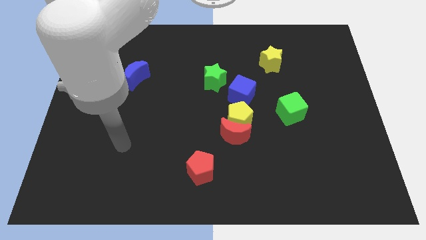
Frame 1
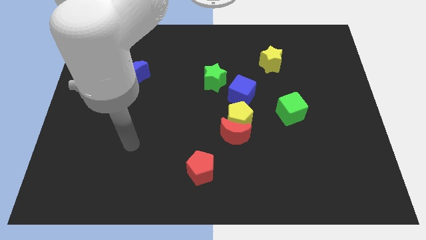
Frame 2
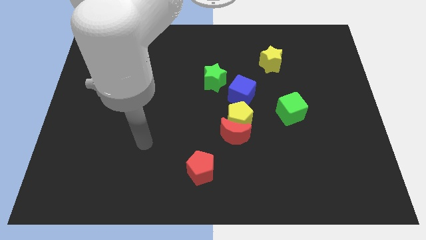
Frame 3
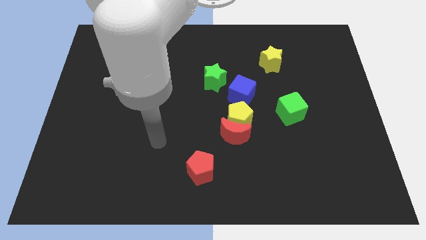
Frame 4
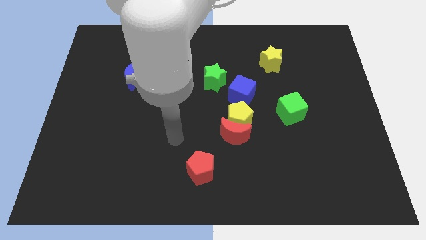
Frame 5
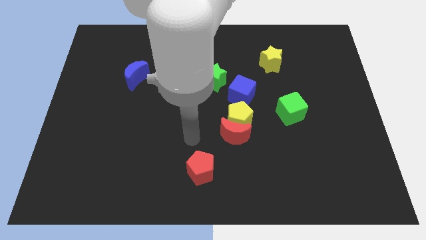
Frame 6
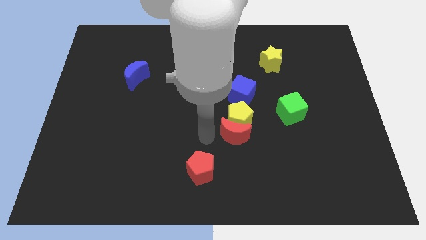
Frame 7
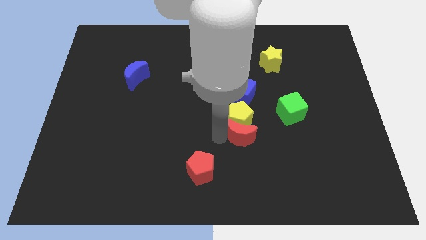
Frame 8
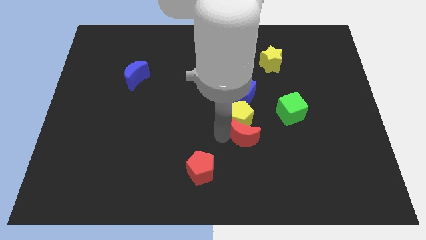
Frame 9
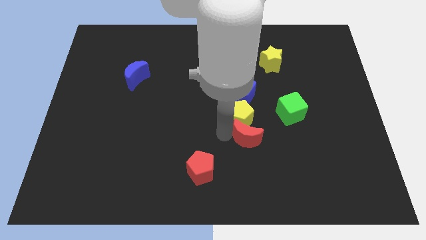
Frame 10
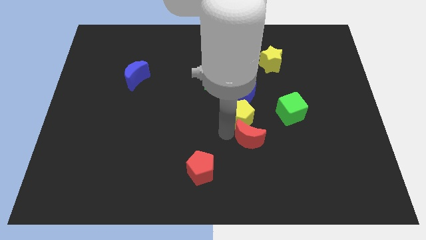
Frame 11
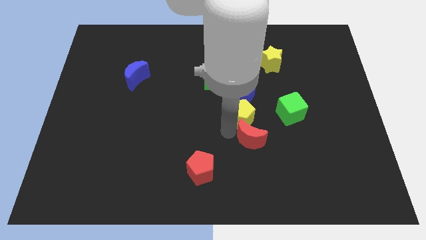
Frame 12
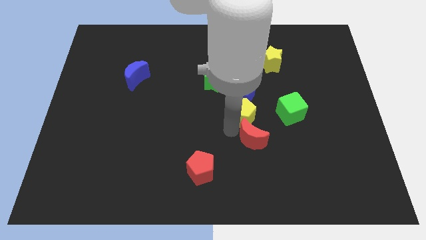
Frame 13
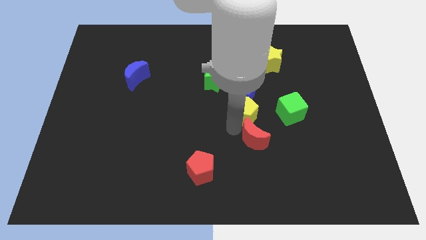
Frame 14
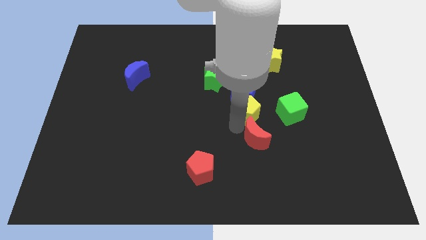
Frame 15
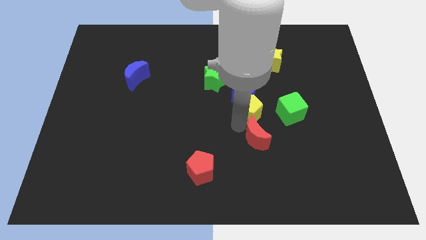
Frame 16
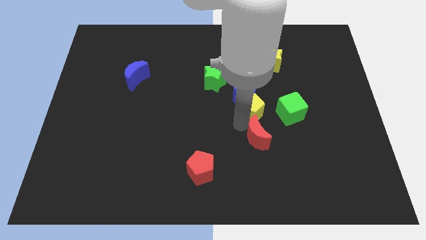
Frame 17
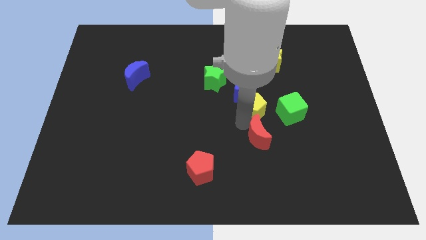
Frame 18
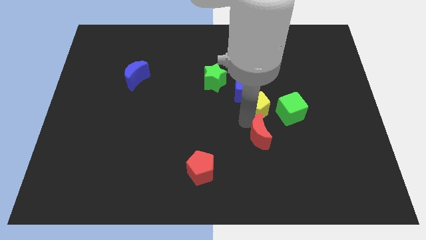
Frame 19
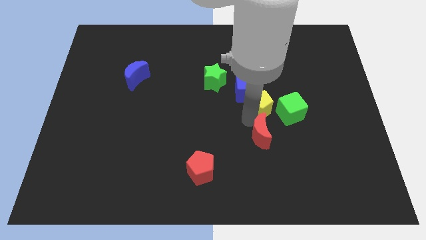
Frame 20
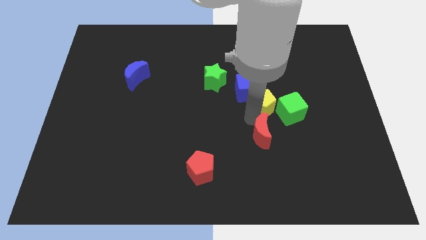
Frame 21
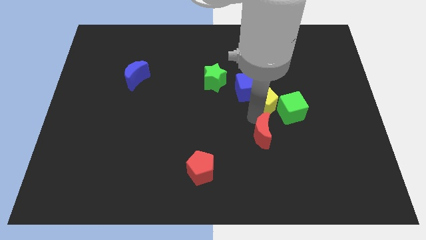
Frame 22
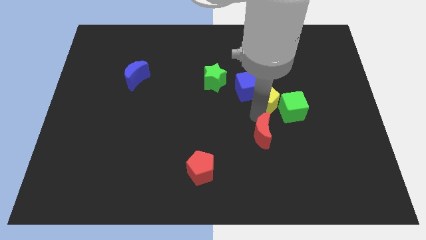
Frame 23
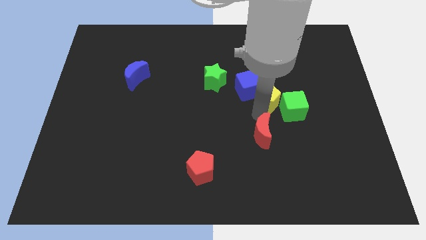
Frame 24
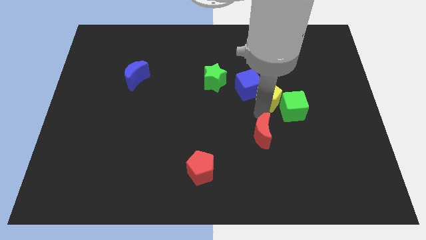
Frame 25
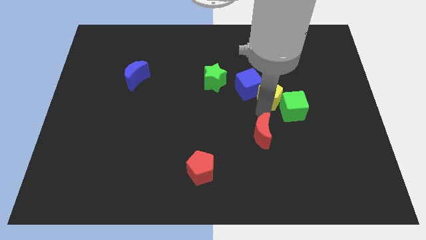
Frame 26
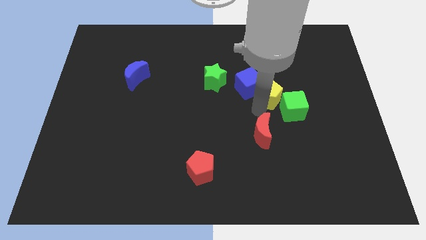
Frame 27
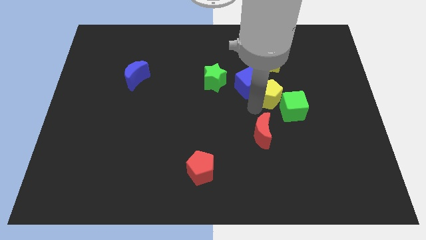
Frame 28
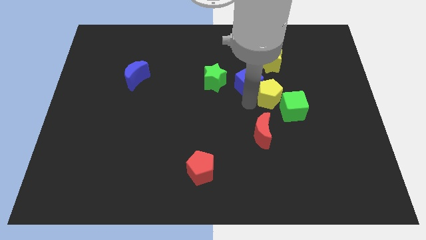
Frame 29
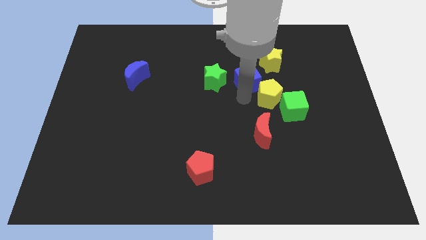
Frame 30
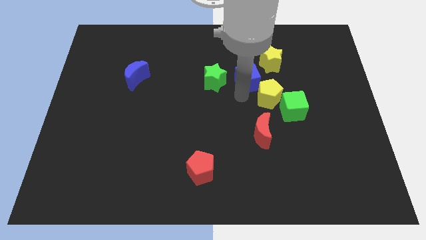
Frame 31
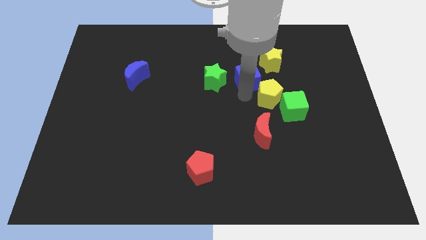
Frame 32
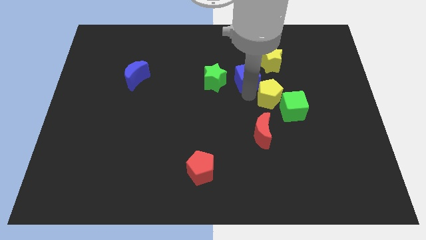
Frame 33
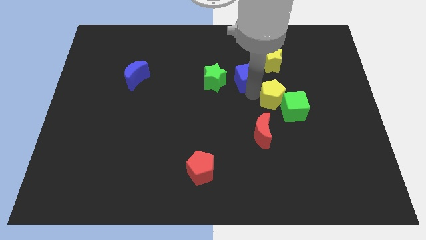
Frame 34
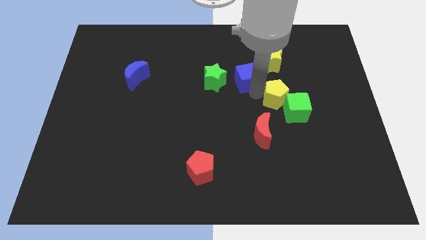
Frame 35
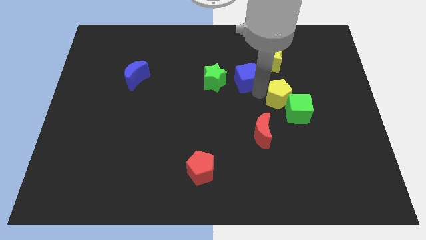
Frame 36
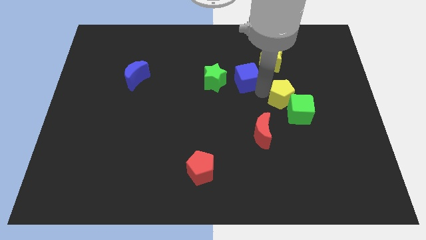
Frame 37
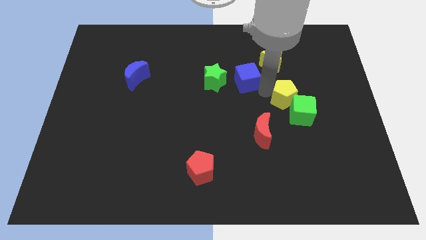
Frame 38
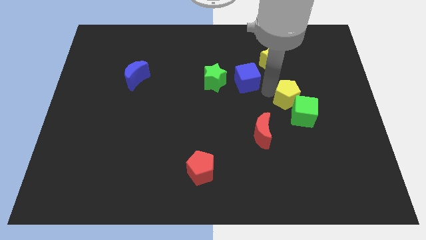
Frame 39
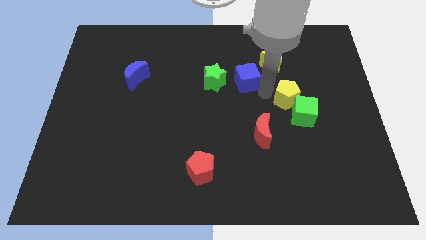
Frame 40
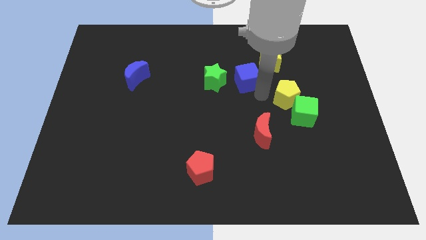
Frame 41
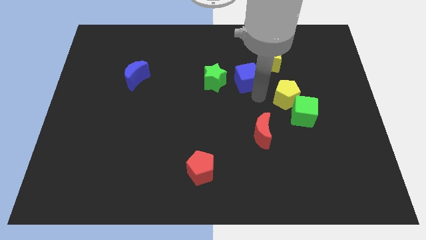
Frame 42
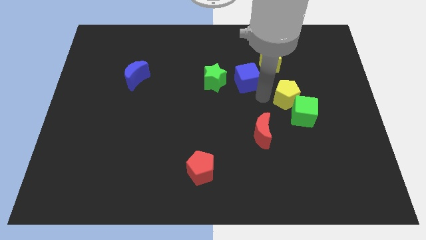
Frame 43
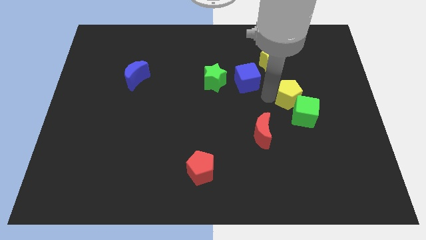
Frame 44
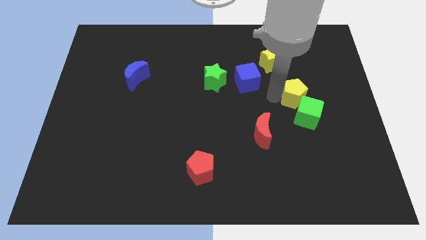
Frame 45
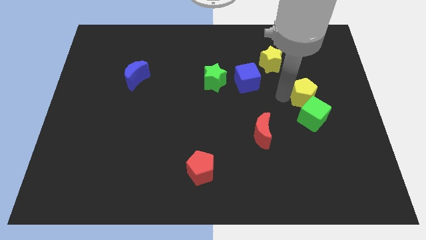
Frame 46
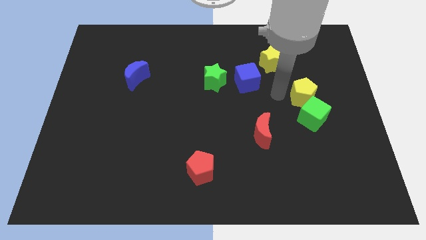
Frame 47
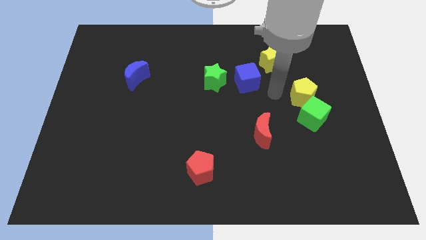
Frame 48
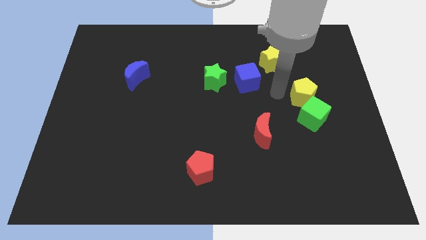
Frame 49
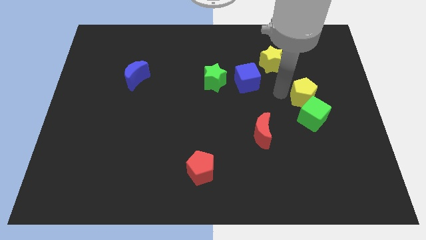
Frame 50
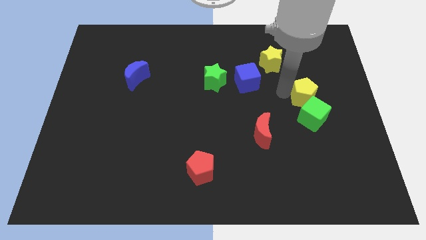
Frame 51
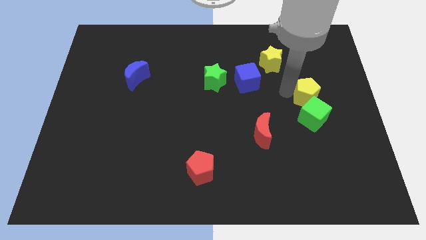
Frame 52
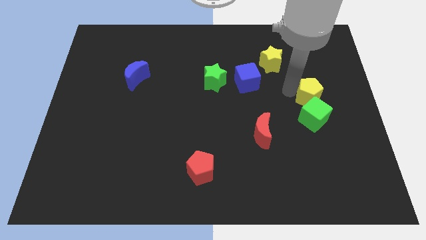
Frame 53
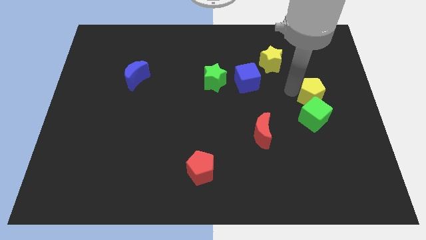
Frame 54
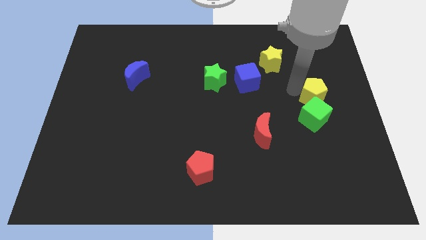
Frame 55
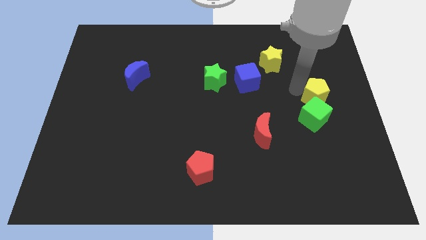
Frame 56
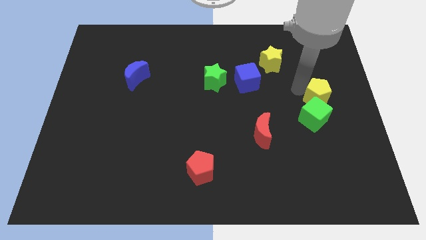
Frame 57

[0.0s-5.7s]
push the yellow pentagon to the right side of the board

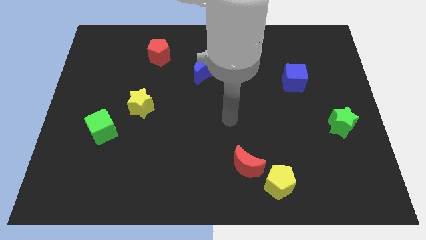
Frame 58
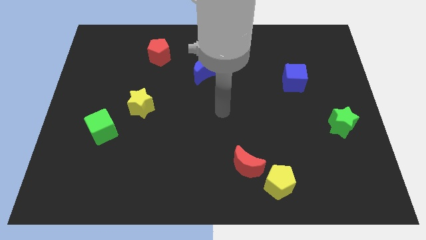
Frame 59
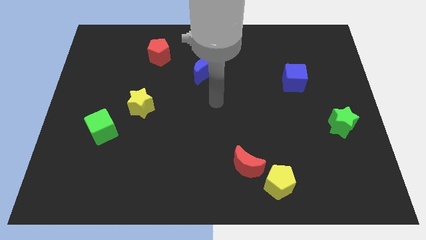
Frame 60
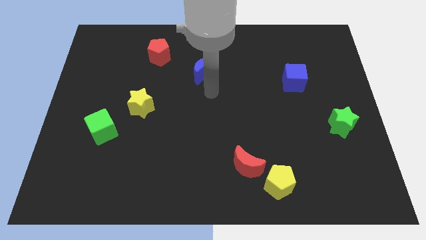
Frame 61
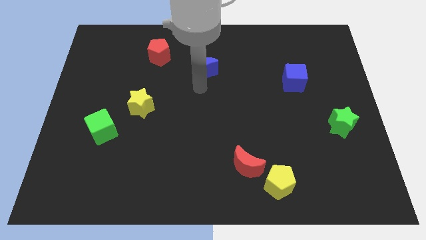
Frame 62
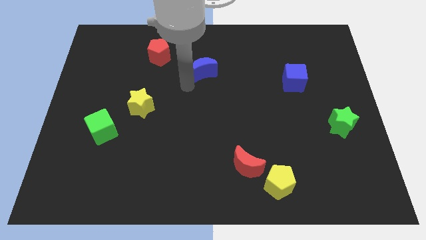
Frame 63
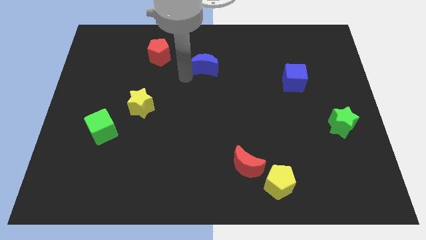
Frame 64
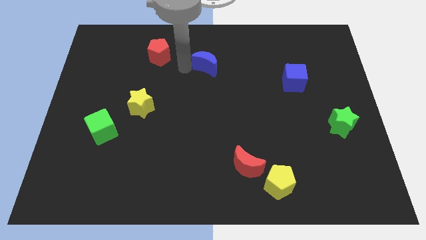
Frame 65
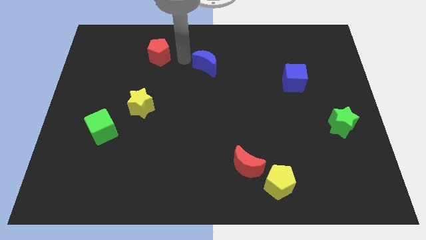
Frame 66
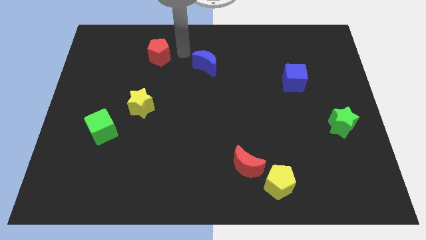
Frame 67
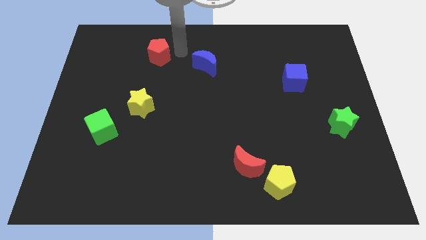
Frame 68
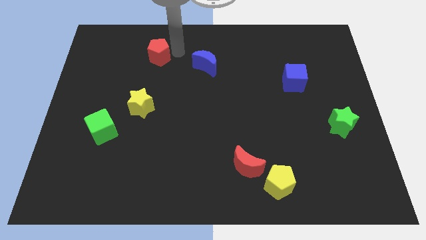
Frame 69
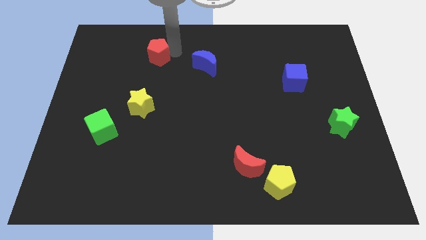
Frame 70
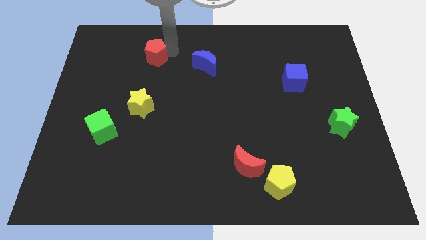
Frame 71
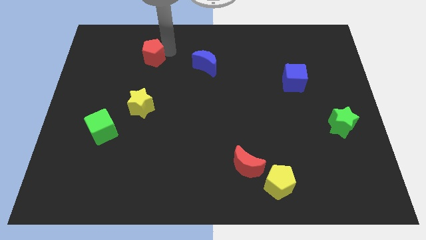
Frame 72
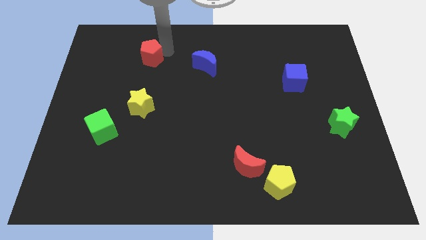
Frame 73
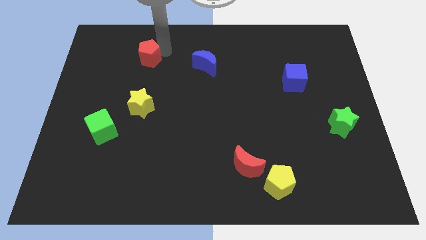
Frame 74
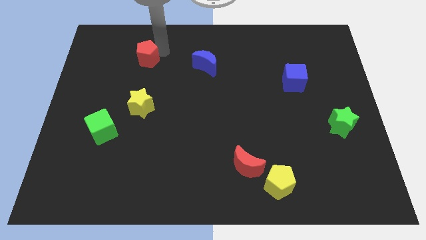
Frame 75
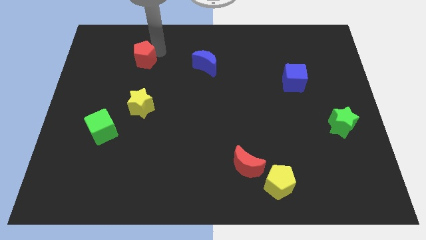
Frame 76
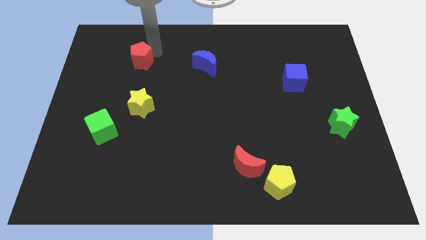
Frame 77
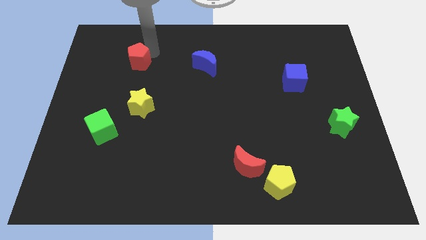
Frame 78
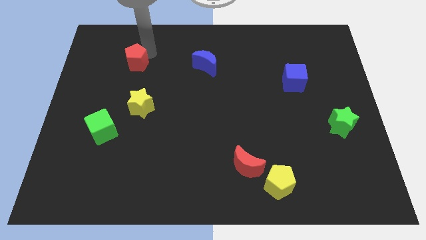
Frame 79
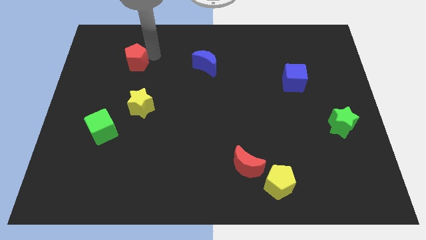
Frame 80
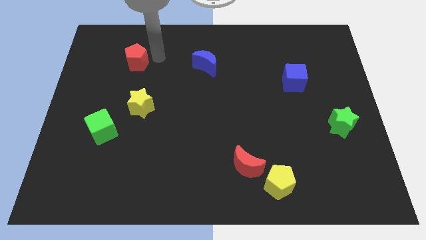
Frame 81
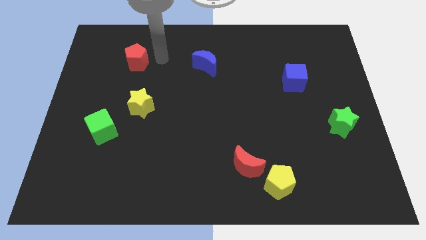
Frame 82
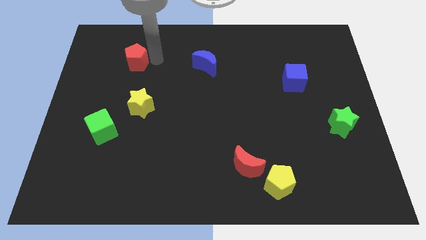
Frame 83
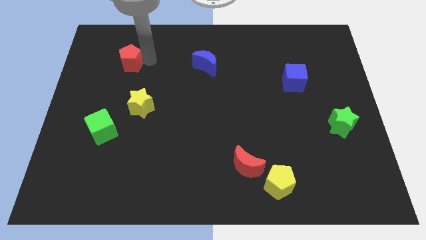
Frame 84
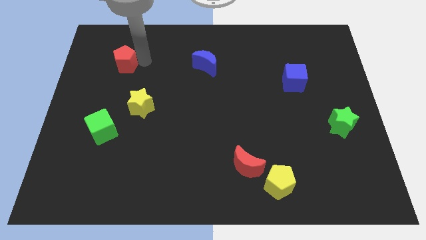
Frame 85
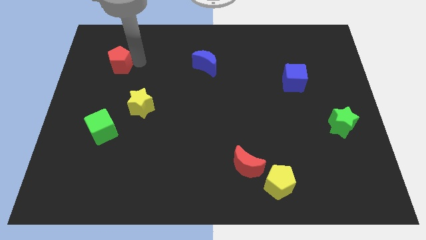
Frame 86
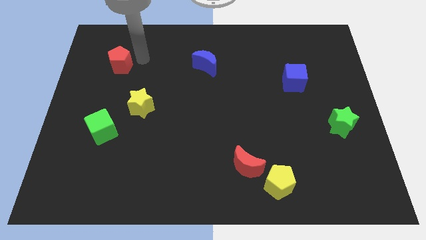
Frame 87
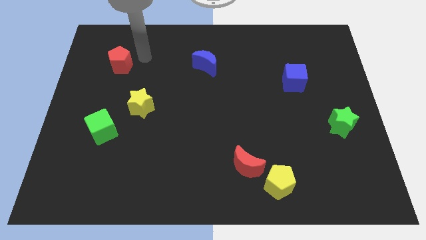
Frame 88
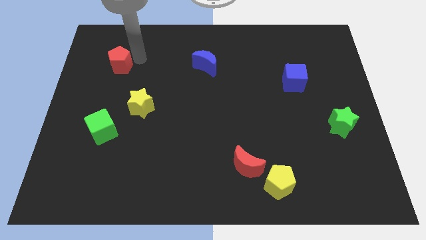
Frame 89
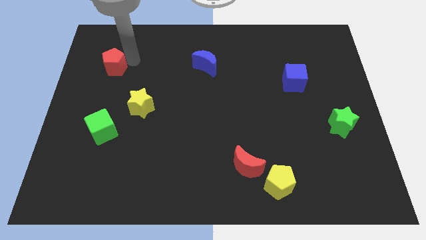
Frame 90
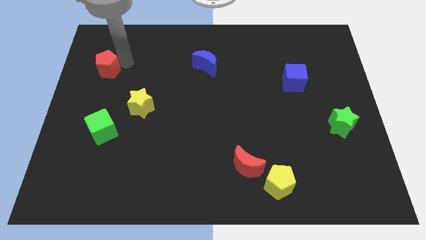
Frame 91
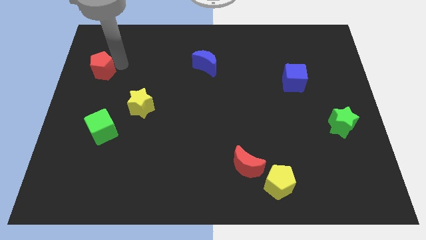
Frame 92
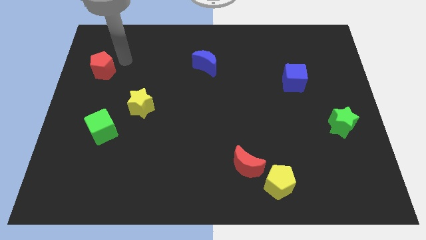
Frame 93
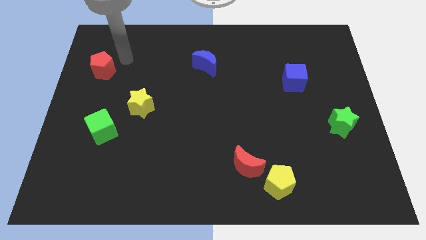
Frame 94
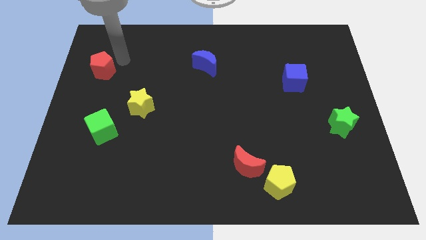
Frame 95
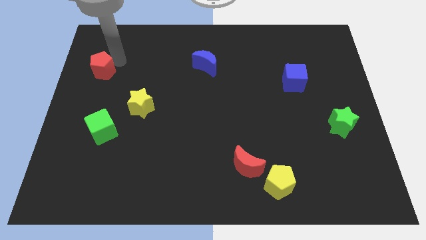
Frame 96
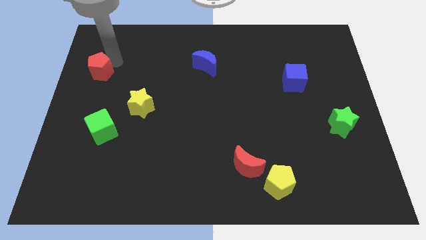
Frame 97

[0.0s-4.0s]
slide the red pentagon to the left side
